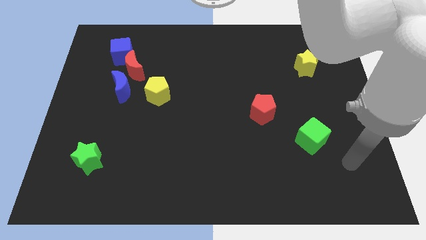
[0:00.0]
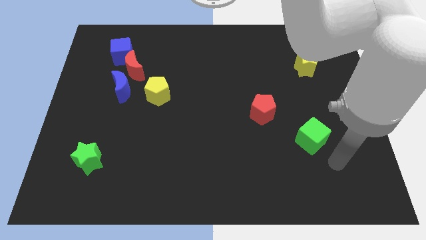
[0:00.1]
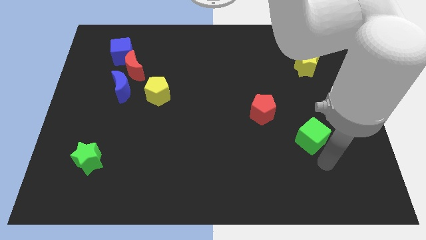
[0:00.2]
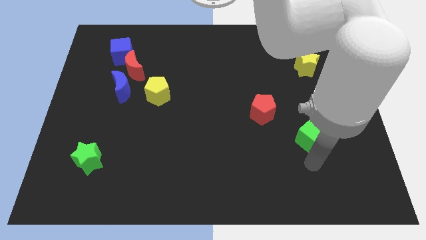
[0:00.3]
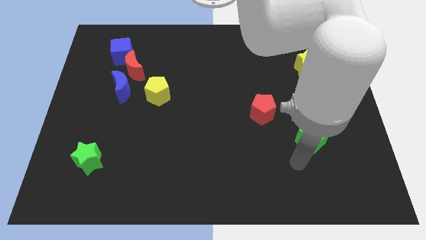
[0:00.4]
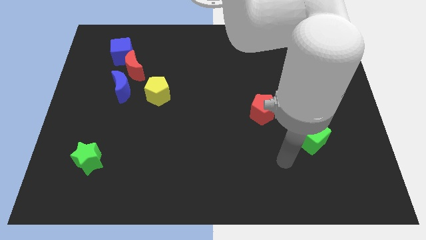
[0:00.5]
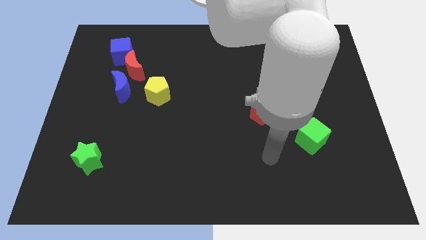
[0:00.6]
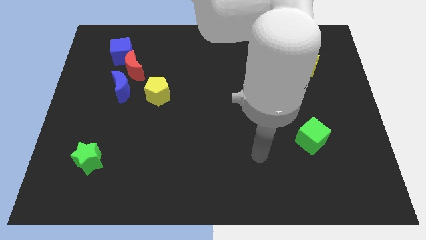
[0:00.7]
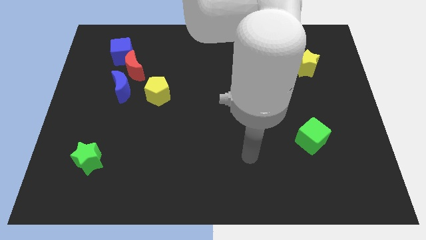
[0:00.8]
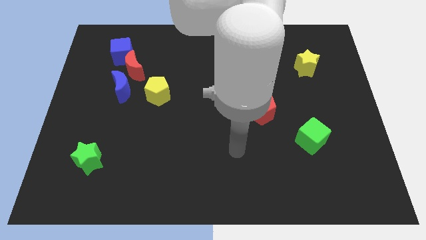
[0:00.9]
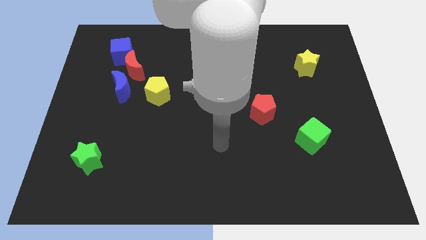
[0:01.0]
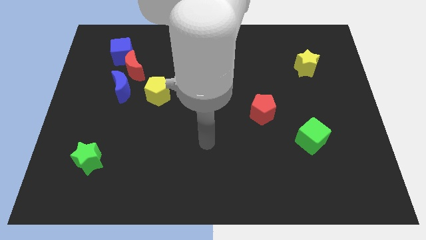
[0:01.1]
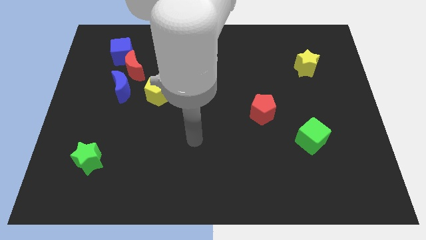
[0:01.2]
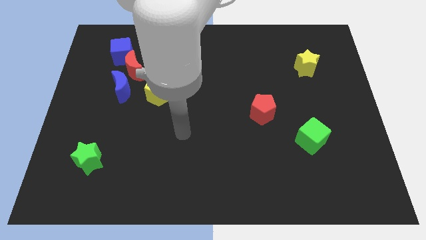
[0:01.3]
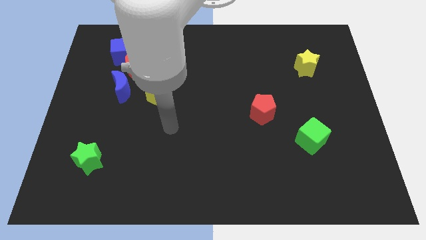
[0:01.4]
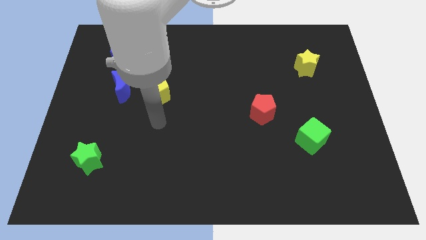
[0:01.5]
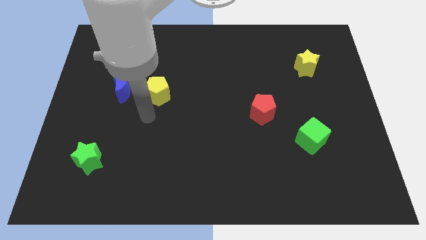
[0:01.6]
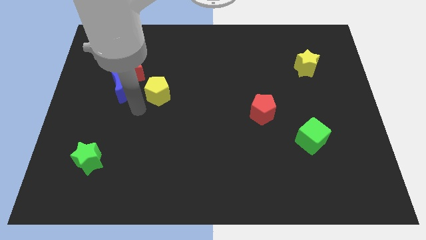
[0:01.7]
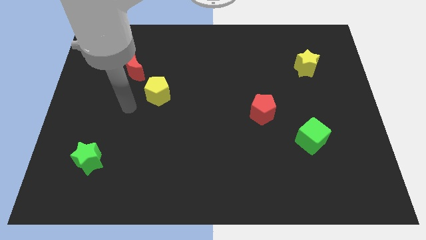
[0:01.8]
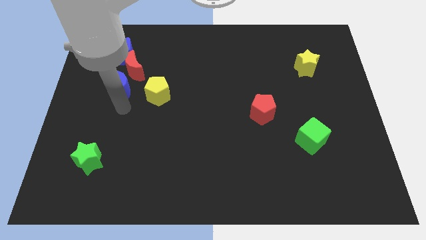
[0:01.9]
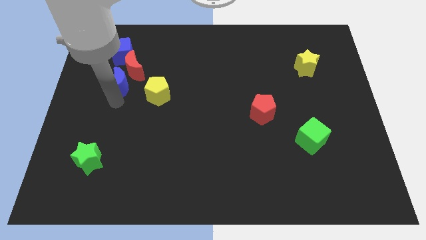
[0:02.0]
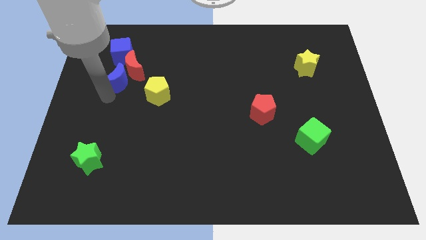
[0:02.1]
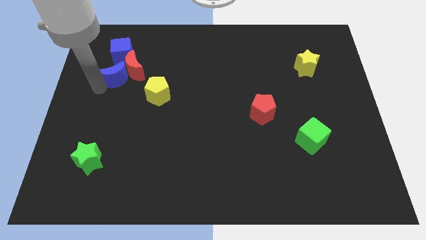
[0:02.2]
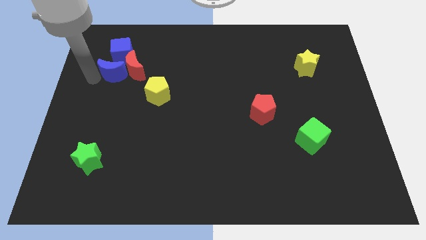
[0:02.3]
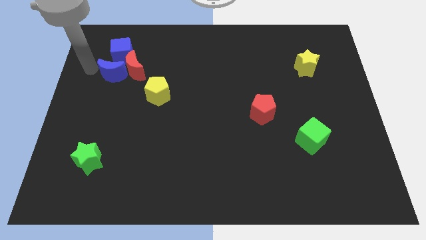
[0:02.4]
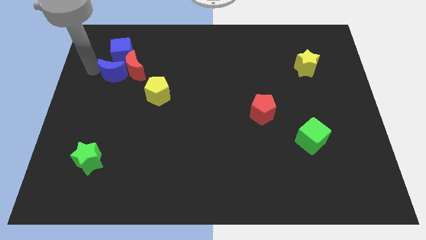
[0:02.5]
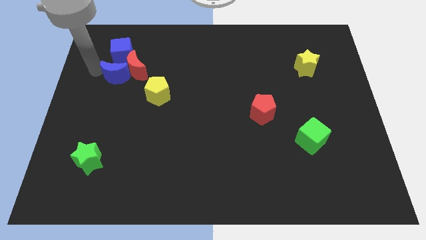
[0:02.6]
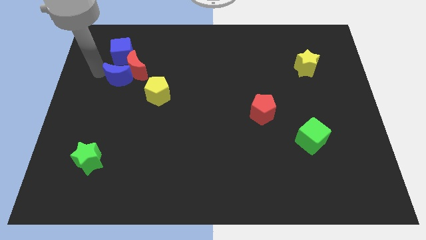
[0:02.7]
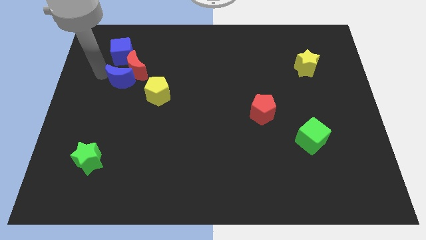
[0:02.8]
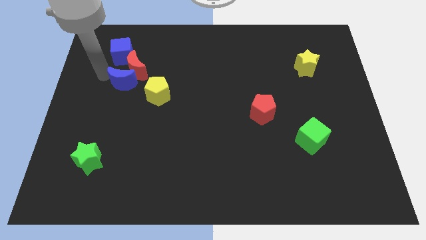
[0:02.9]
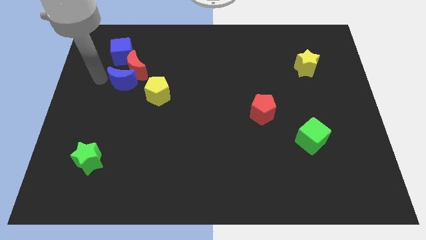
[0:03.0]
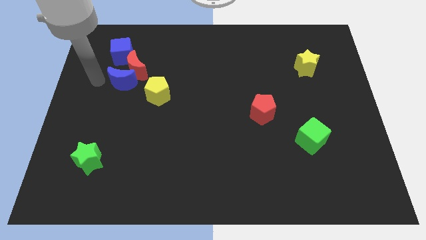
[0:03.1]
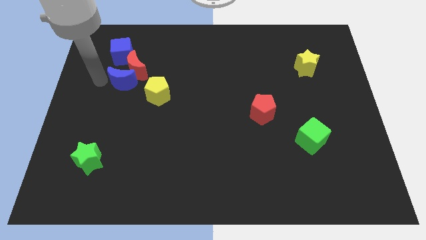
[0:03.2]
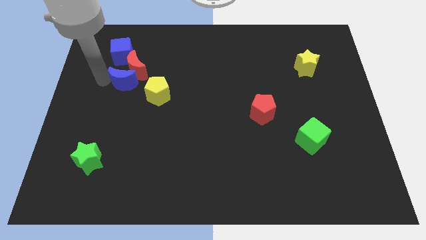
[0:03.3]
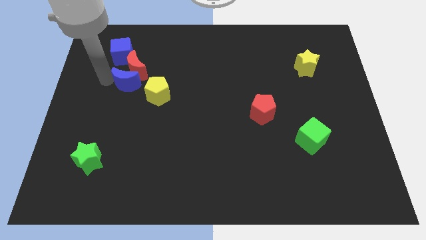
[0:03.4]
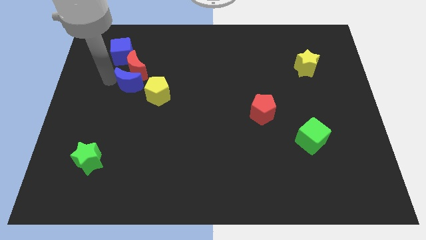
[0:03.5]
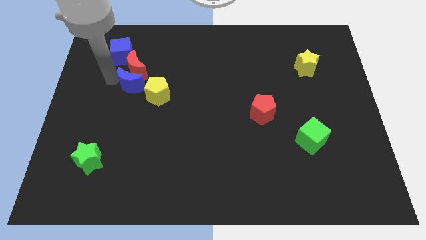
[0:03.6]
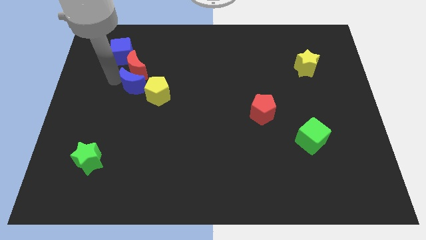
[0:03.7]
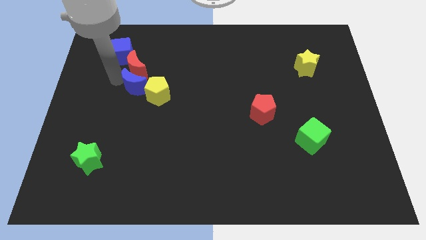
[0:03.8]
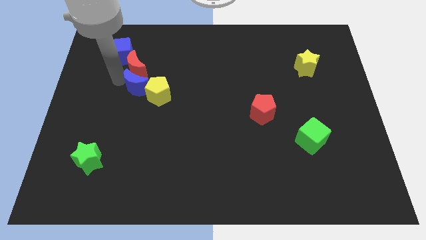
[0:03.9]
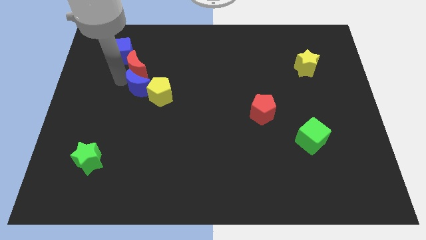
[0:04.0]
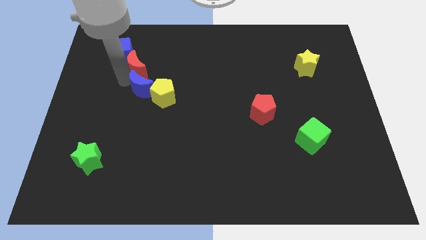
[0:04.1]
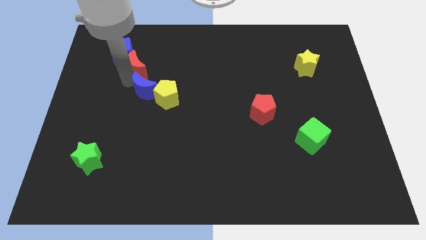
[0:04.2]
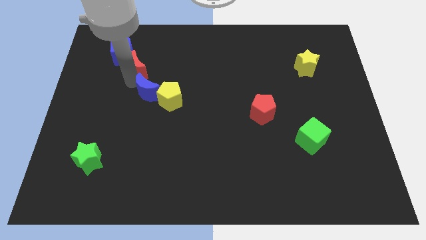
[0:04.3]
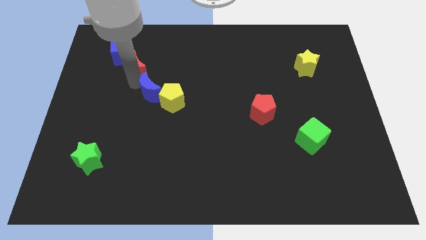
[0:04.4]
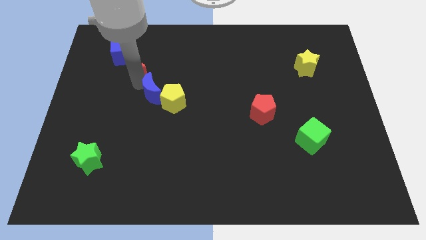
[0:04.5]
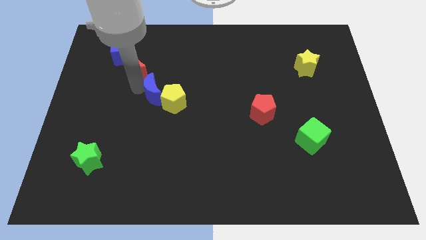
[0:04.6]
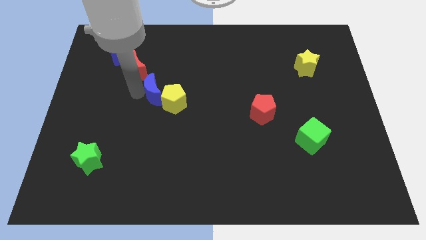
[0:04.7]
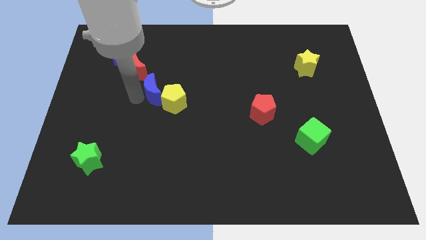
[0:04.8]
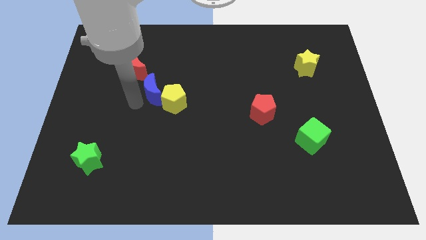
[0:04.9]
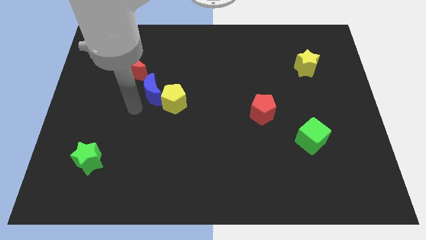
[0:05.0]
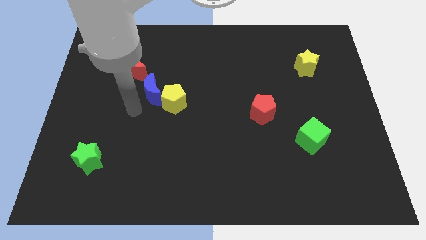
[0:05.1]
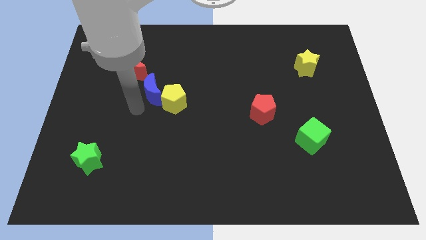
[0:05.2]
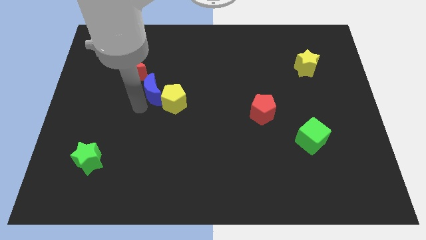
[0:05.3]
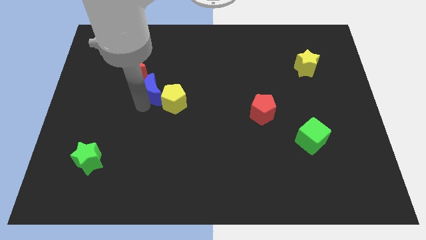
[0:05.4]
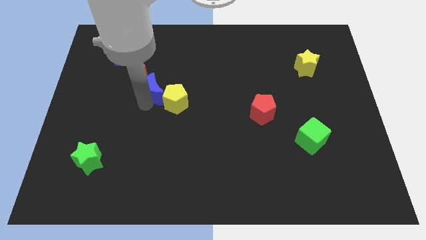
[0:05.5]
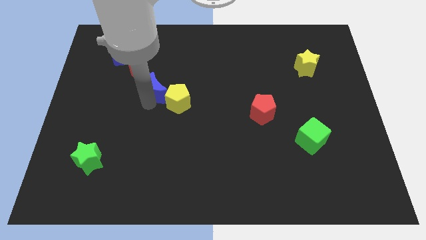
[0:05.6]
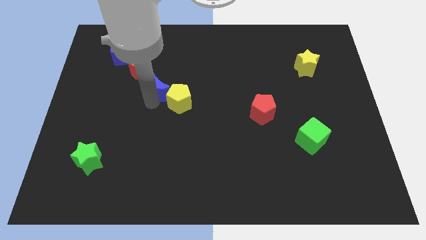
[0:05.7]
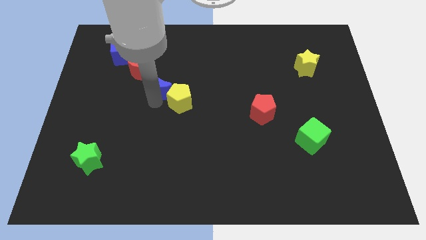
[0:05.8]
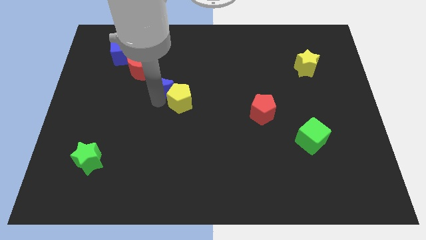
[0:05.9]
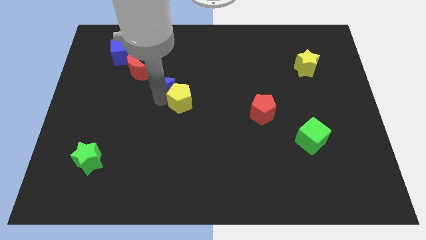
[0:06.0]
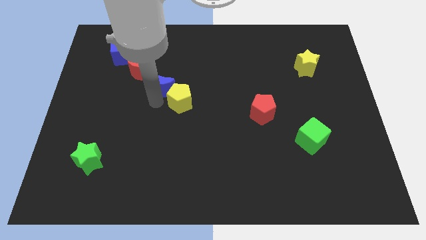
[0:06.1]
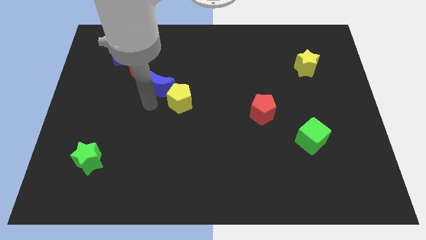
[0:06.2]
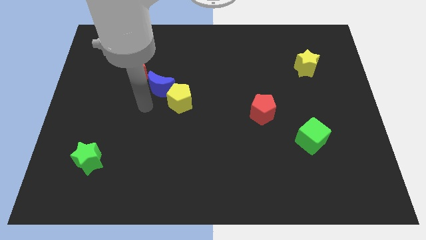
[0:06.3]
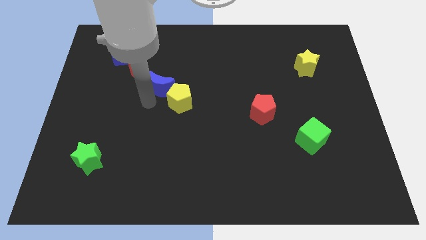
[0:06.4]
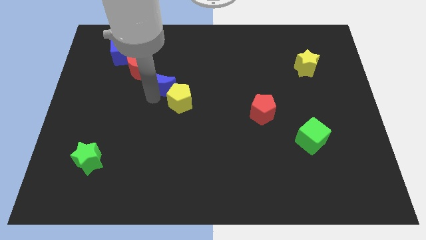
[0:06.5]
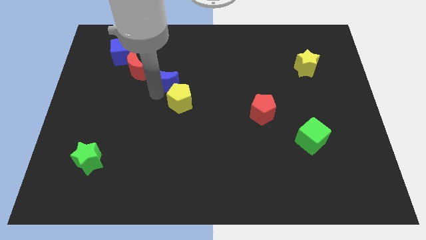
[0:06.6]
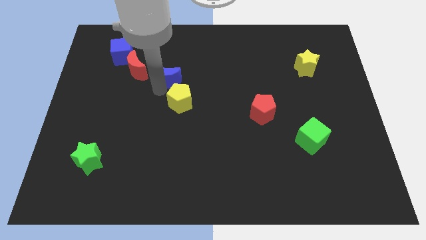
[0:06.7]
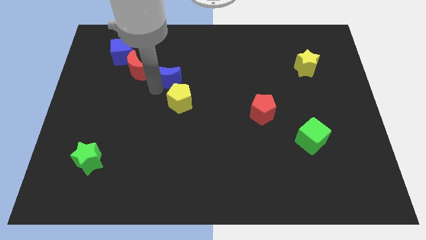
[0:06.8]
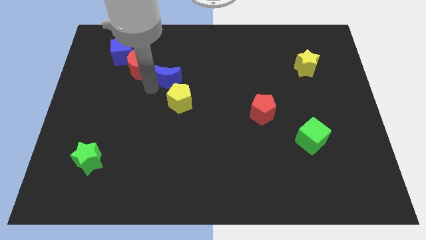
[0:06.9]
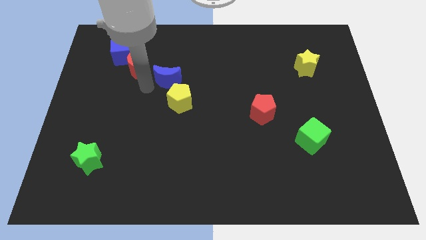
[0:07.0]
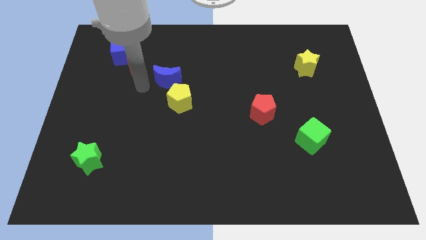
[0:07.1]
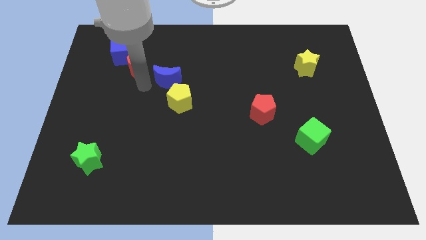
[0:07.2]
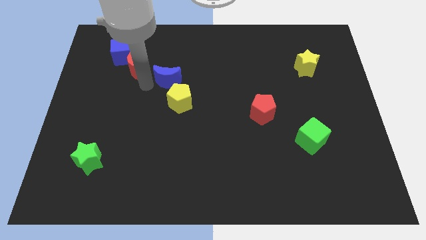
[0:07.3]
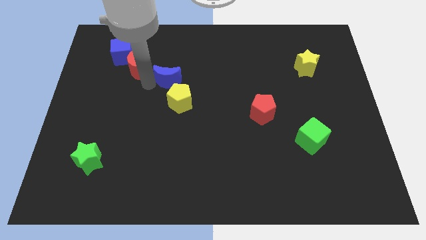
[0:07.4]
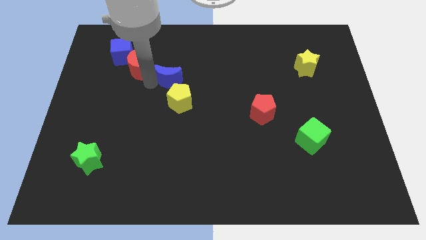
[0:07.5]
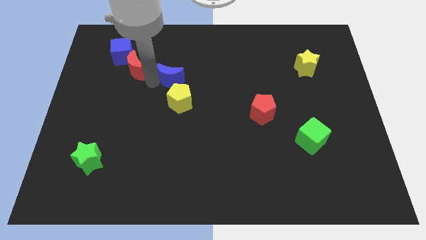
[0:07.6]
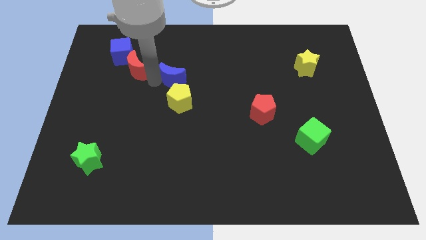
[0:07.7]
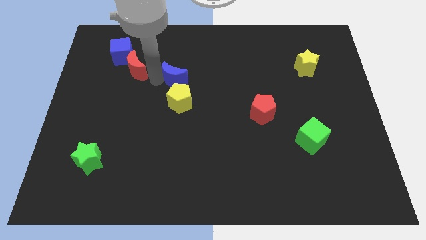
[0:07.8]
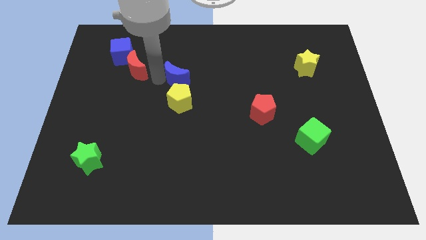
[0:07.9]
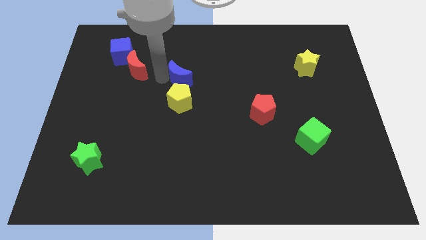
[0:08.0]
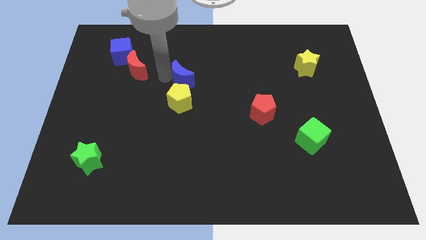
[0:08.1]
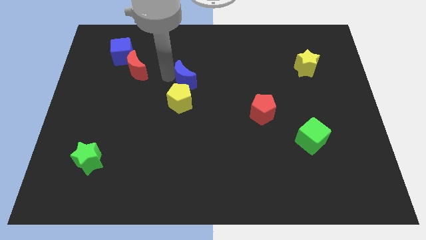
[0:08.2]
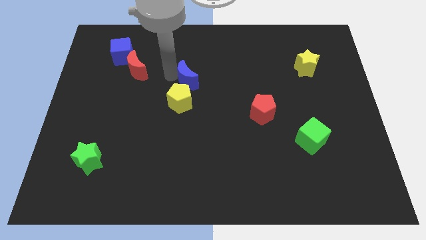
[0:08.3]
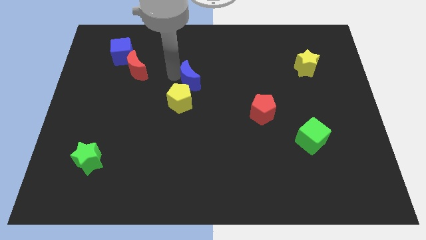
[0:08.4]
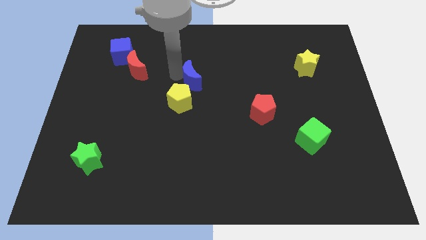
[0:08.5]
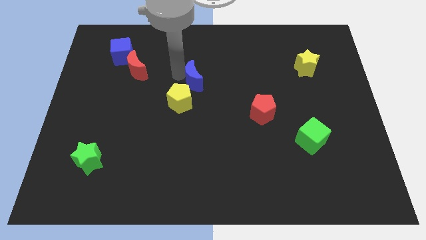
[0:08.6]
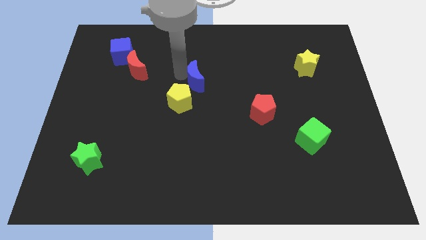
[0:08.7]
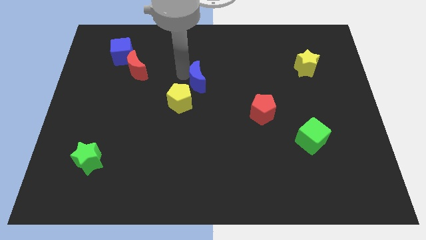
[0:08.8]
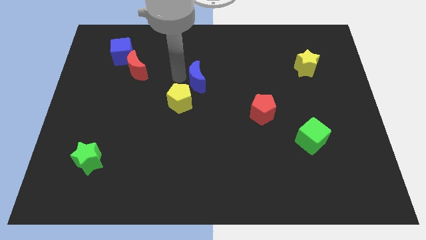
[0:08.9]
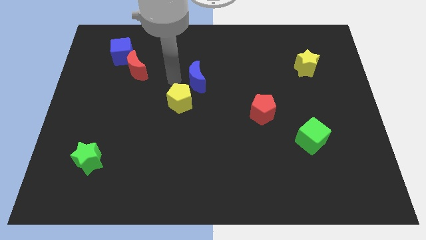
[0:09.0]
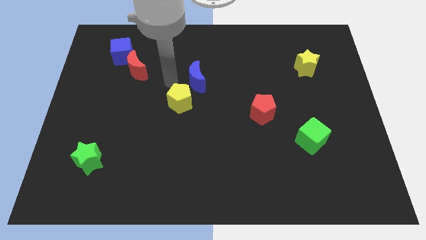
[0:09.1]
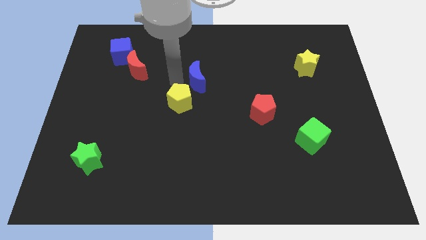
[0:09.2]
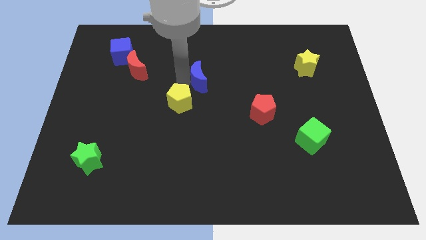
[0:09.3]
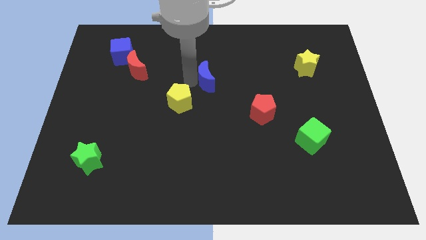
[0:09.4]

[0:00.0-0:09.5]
slide the blue moon right
